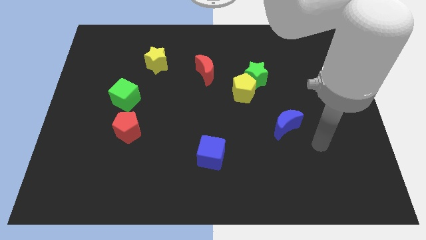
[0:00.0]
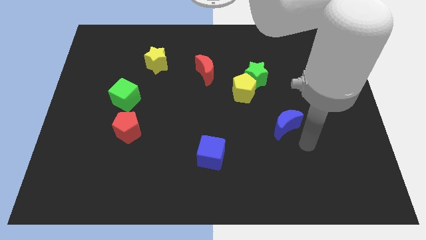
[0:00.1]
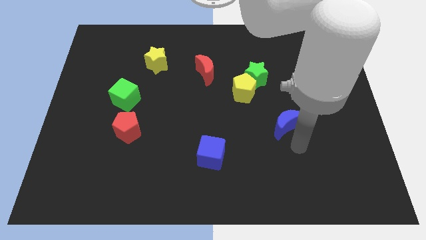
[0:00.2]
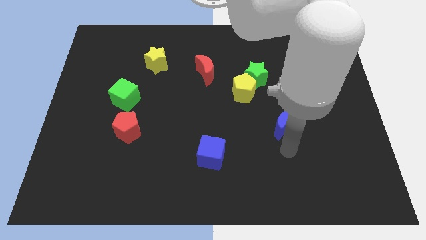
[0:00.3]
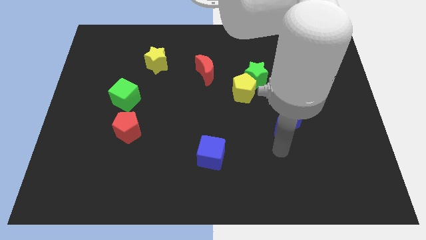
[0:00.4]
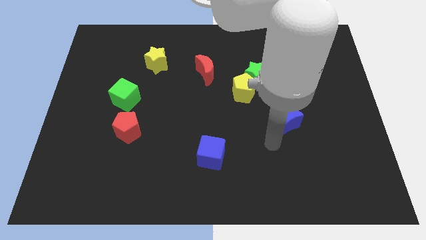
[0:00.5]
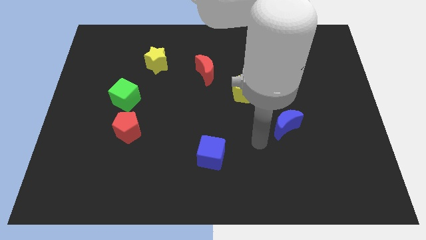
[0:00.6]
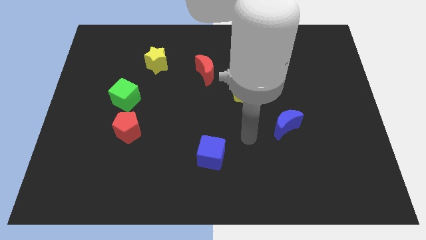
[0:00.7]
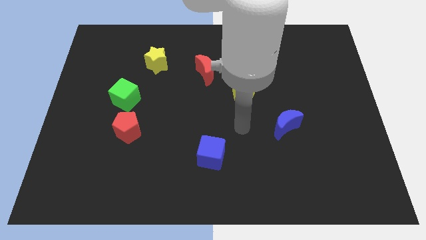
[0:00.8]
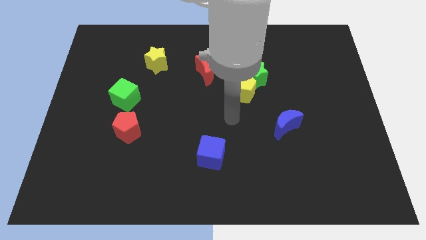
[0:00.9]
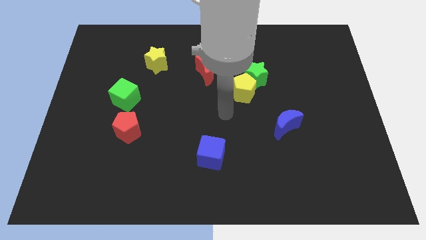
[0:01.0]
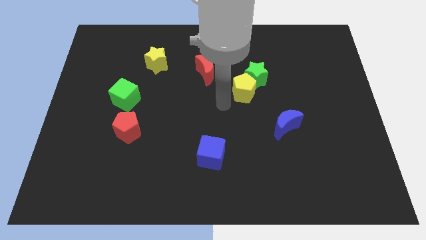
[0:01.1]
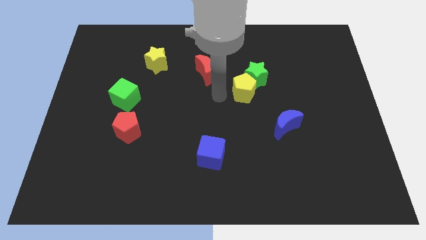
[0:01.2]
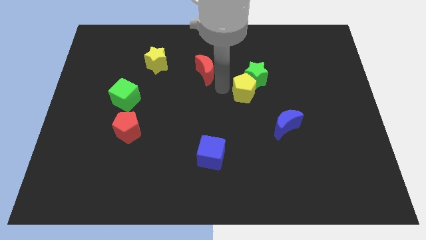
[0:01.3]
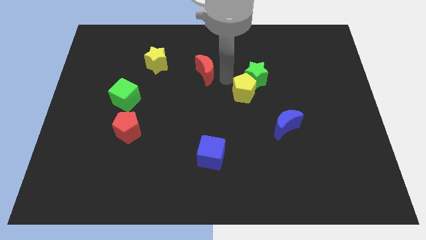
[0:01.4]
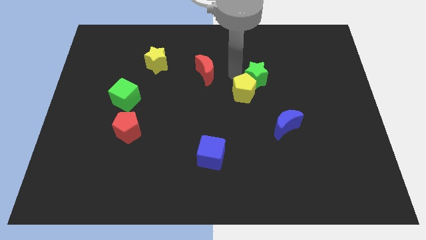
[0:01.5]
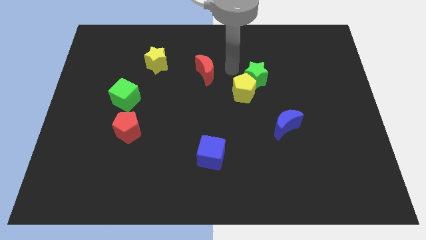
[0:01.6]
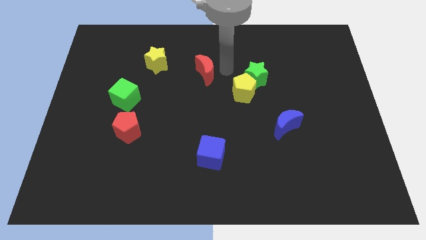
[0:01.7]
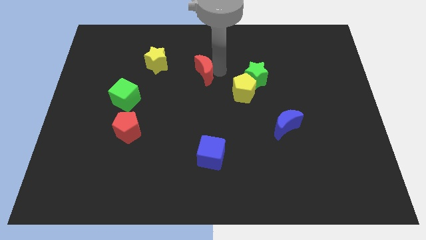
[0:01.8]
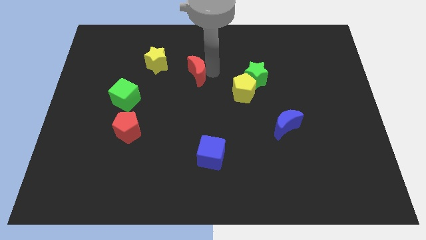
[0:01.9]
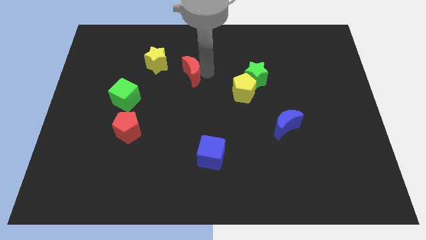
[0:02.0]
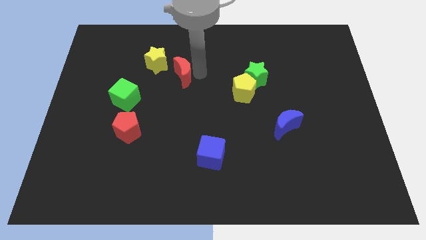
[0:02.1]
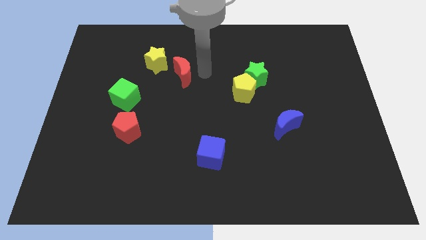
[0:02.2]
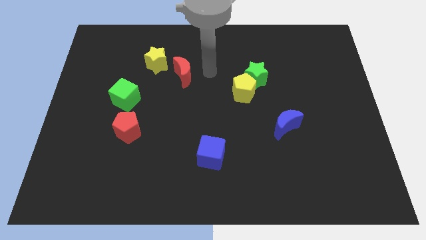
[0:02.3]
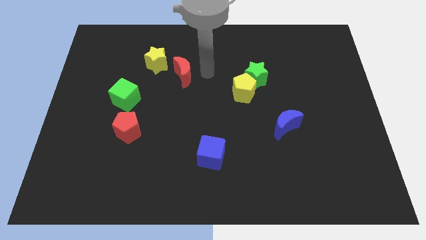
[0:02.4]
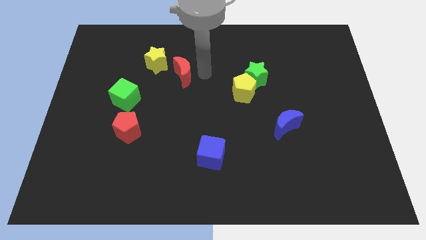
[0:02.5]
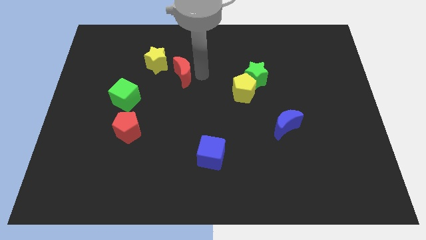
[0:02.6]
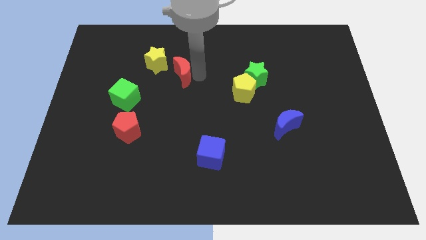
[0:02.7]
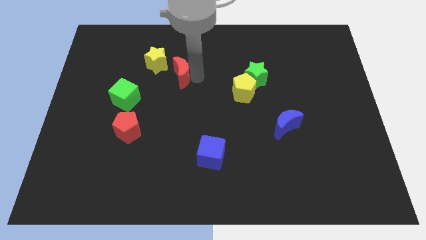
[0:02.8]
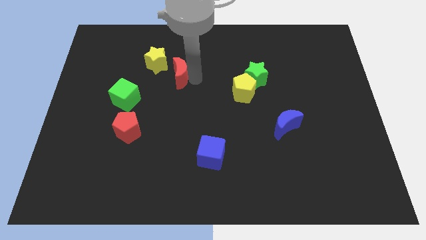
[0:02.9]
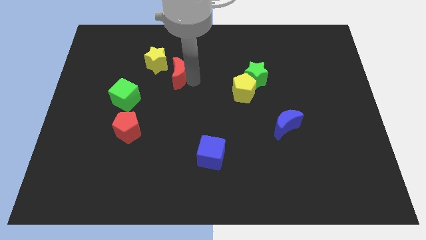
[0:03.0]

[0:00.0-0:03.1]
slightly slide the red moon to the left

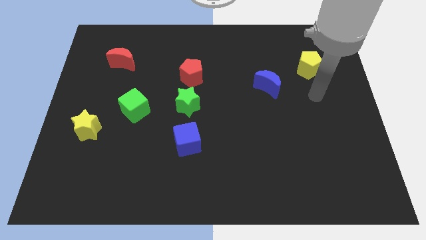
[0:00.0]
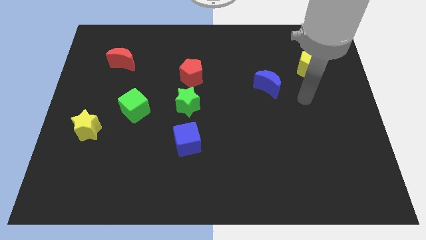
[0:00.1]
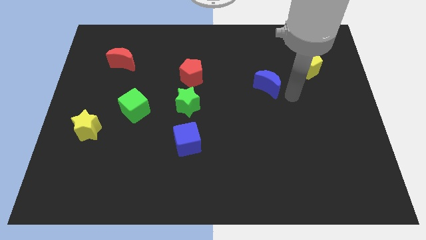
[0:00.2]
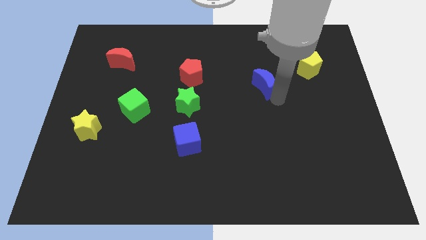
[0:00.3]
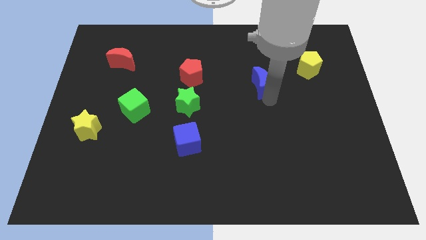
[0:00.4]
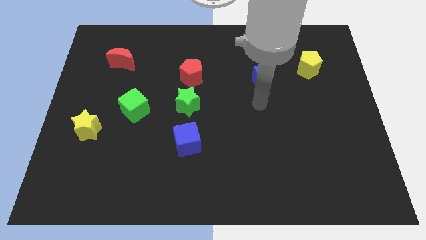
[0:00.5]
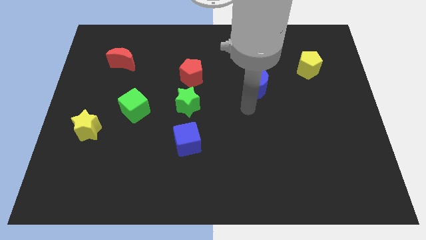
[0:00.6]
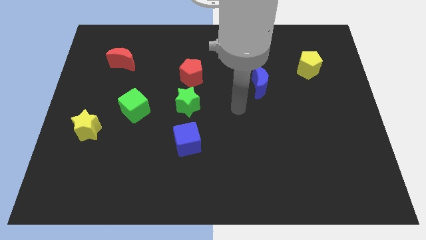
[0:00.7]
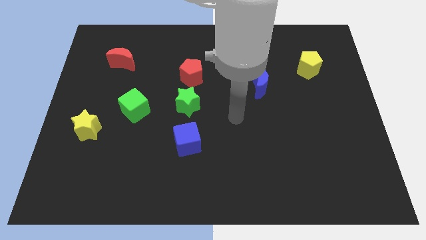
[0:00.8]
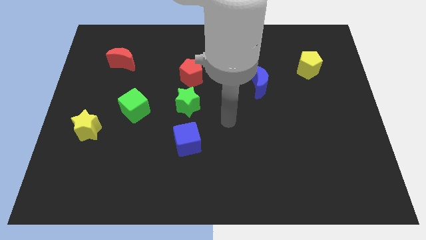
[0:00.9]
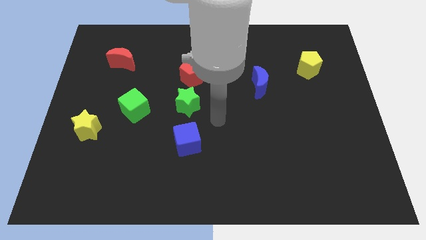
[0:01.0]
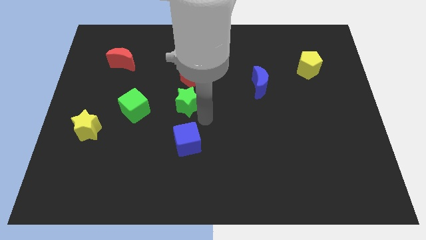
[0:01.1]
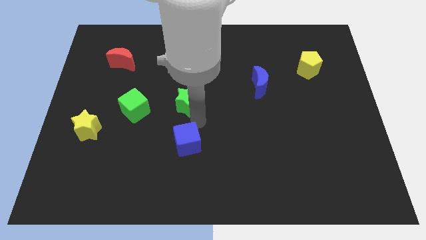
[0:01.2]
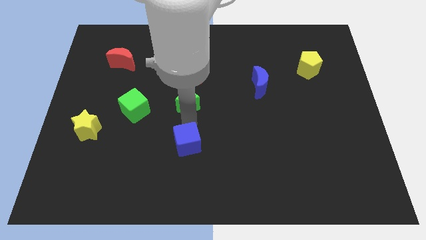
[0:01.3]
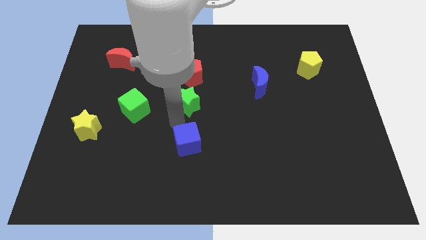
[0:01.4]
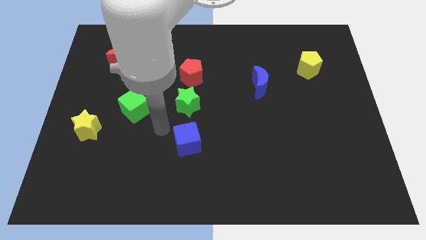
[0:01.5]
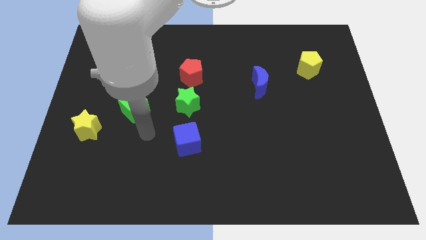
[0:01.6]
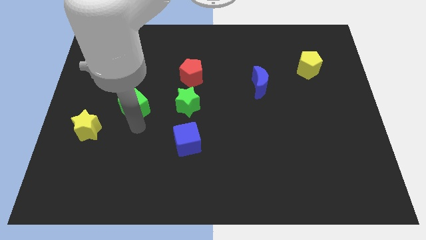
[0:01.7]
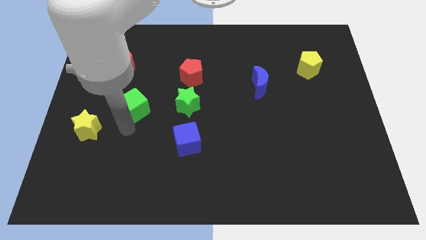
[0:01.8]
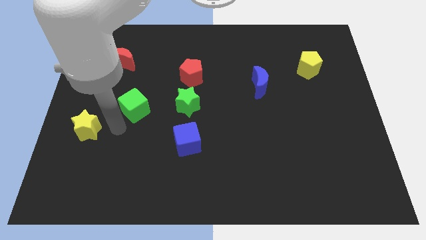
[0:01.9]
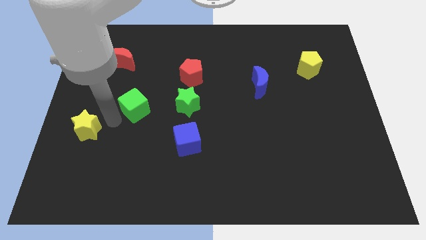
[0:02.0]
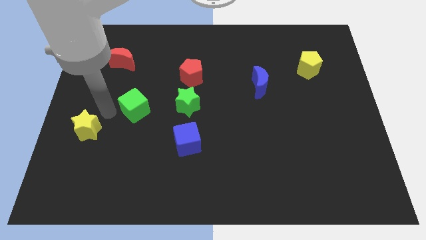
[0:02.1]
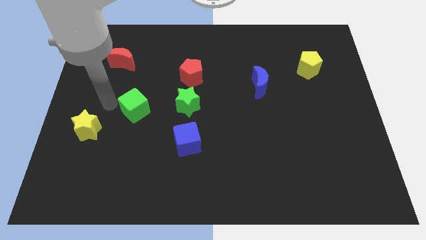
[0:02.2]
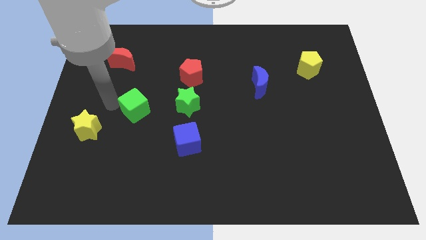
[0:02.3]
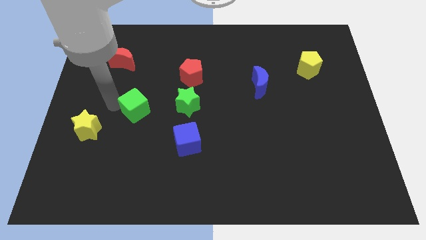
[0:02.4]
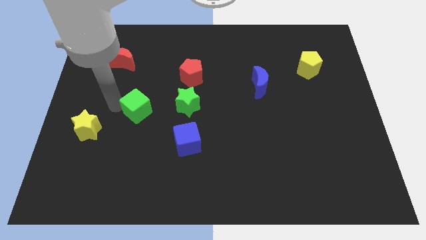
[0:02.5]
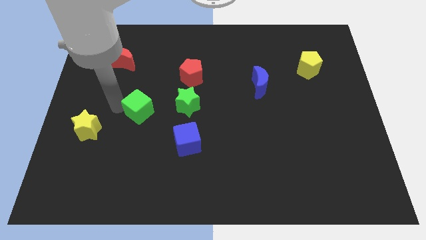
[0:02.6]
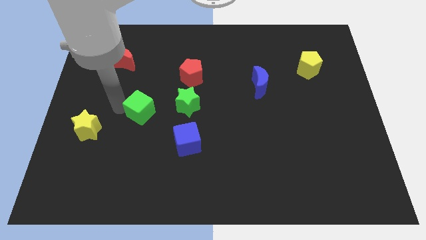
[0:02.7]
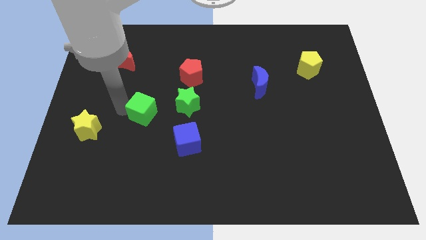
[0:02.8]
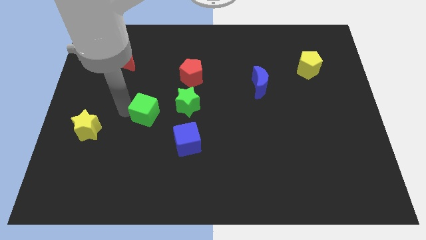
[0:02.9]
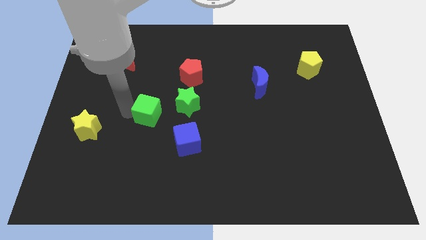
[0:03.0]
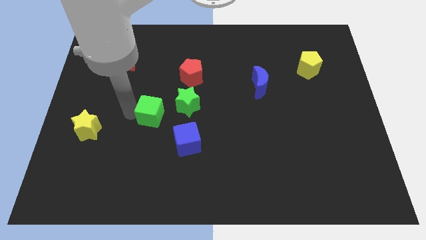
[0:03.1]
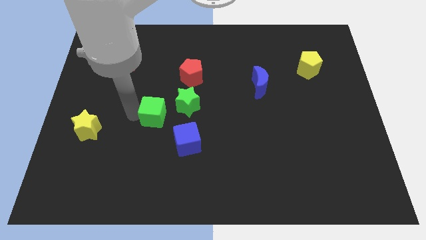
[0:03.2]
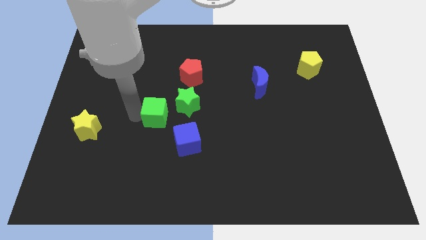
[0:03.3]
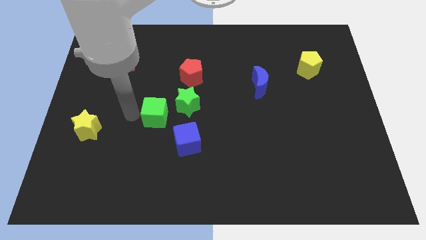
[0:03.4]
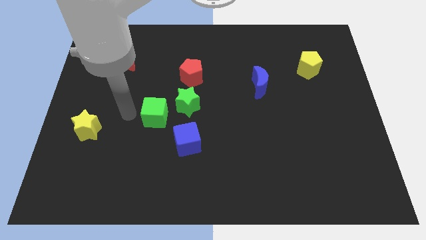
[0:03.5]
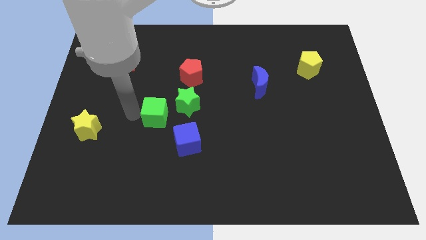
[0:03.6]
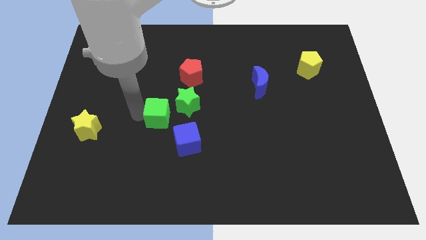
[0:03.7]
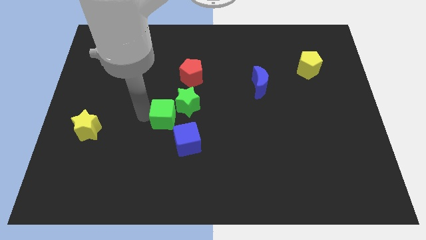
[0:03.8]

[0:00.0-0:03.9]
push the green cube right slightly

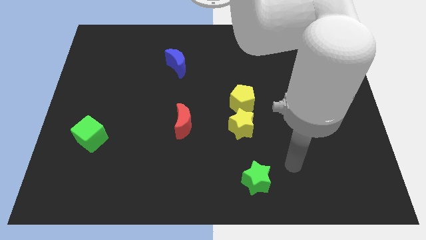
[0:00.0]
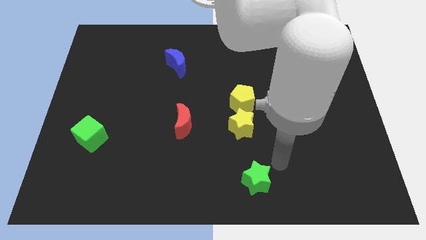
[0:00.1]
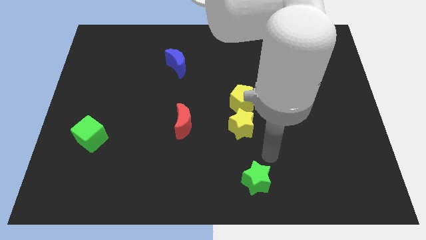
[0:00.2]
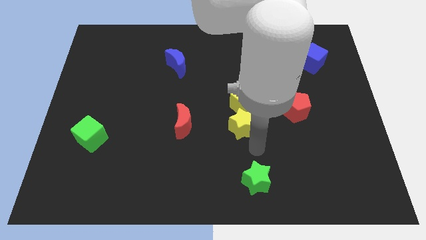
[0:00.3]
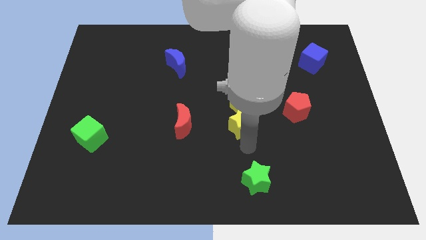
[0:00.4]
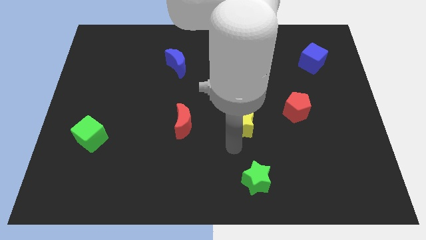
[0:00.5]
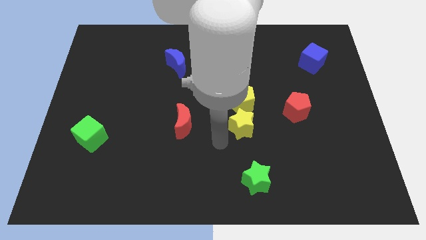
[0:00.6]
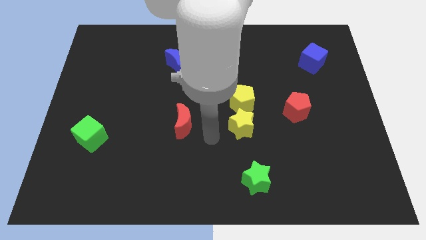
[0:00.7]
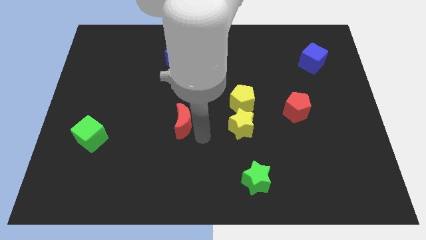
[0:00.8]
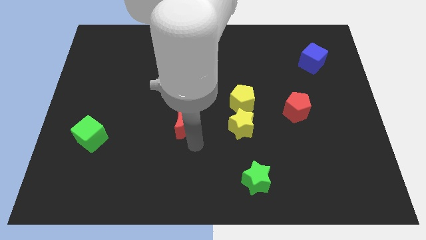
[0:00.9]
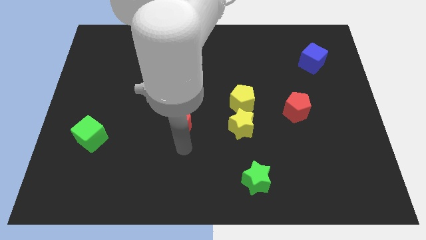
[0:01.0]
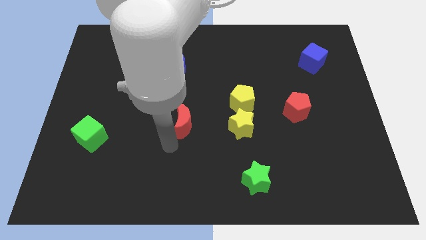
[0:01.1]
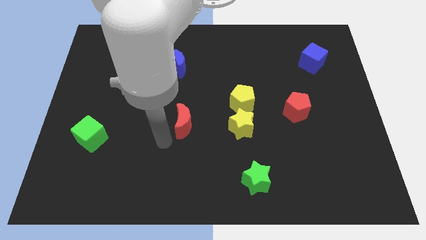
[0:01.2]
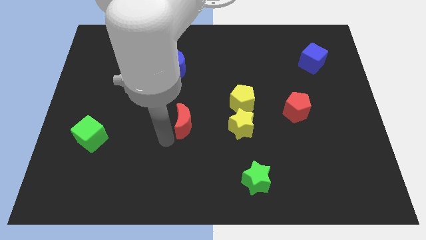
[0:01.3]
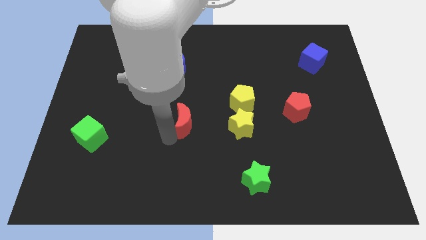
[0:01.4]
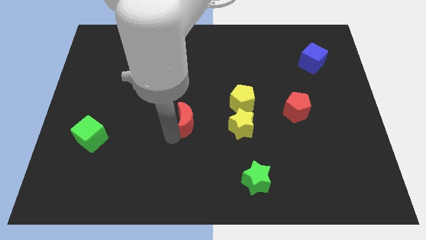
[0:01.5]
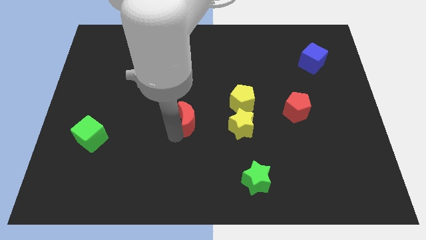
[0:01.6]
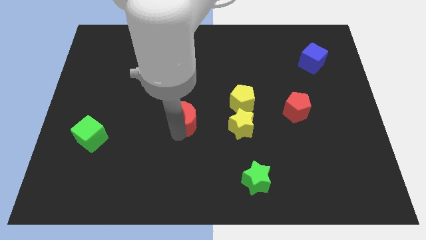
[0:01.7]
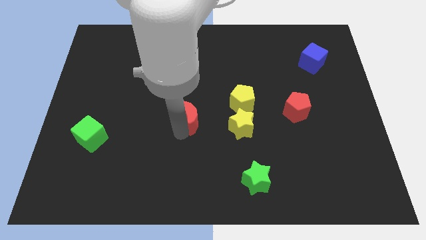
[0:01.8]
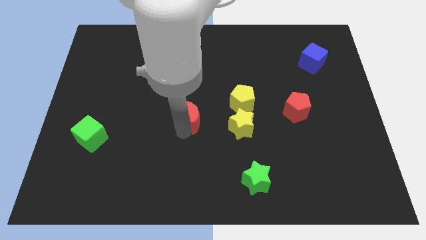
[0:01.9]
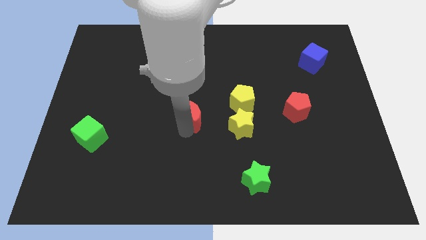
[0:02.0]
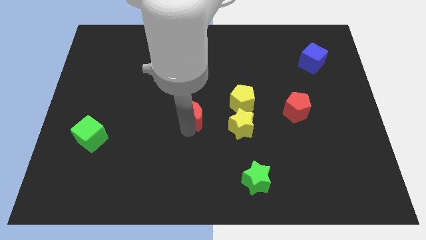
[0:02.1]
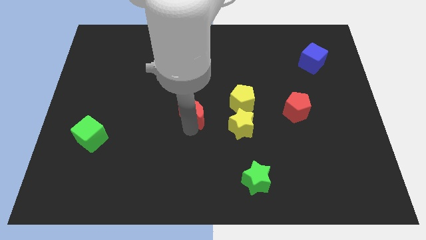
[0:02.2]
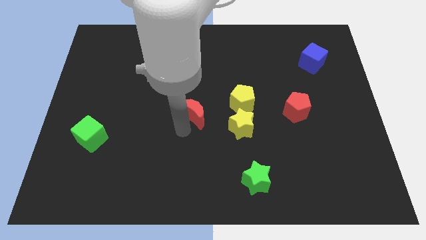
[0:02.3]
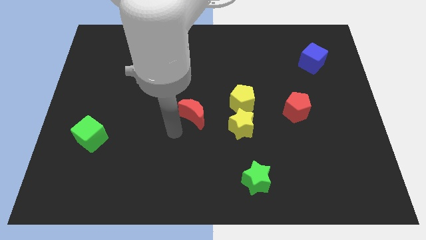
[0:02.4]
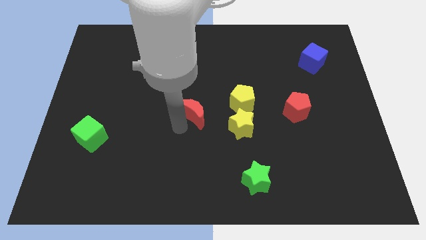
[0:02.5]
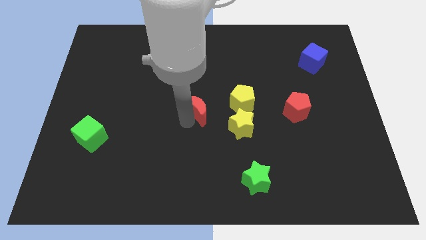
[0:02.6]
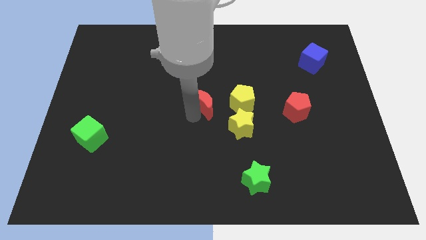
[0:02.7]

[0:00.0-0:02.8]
slide the red moon a little upwards and right
